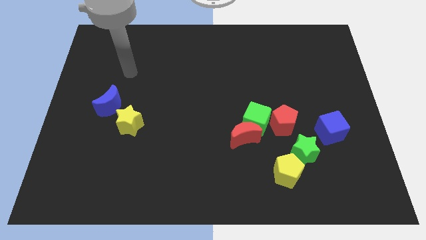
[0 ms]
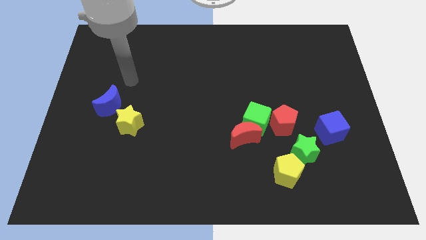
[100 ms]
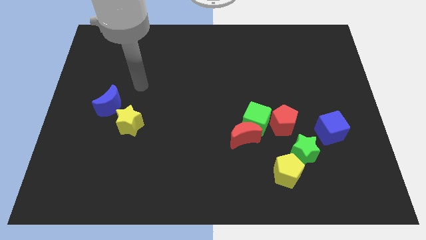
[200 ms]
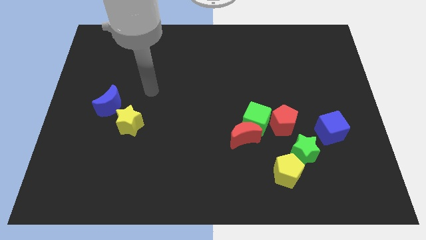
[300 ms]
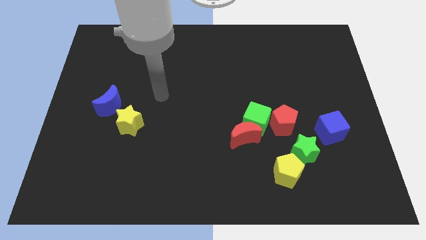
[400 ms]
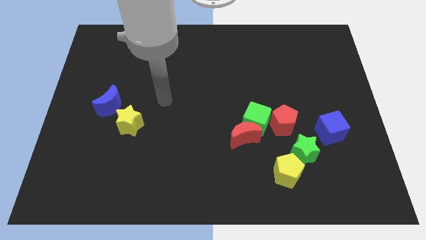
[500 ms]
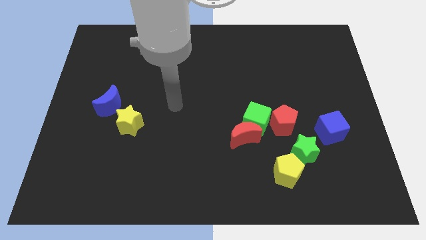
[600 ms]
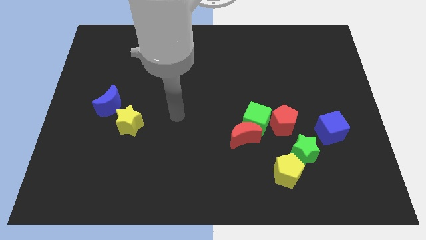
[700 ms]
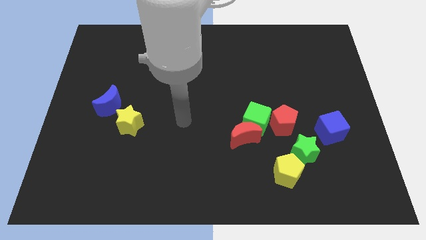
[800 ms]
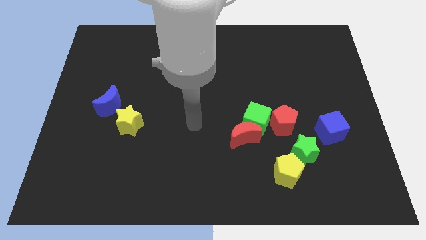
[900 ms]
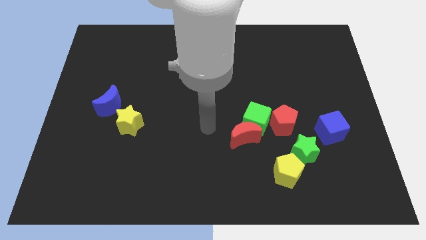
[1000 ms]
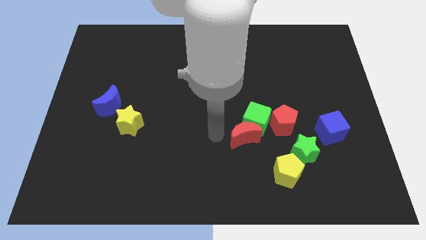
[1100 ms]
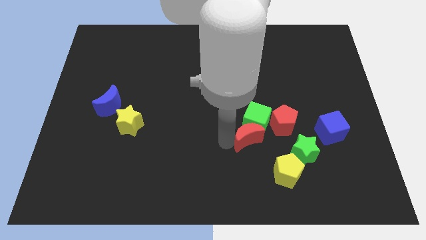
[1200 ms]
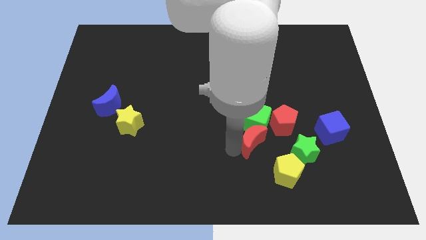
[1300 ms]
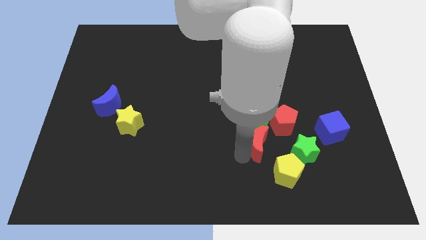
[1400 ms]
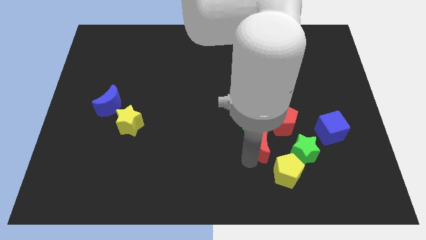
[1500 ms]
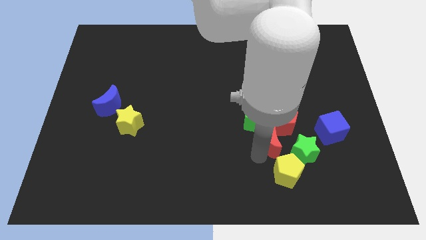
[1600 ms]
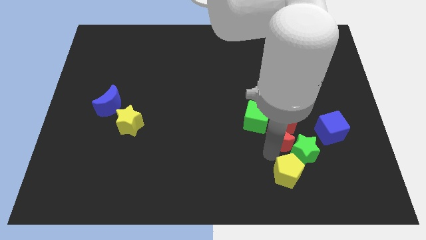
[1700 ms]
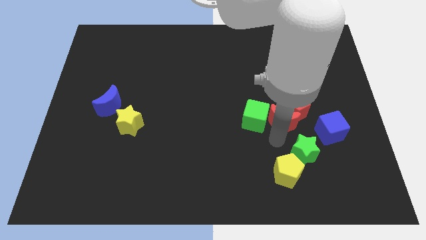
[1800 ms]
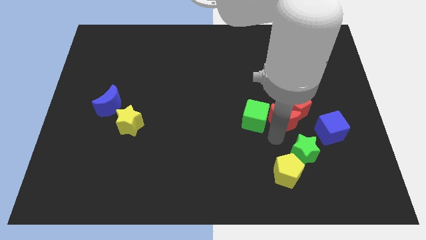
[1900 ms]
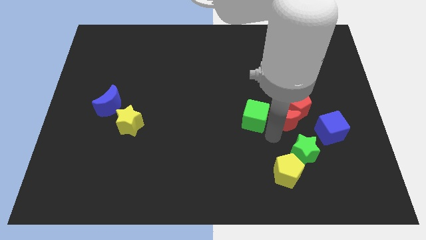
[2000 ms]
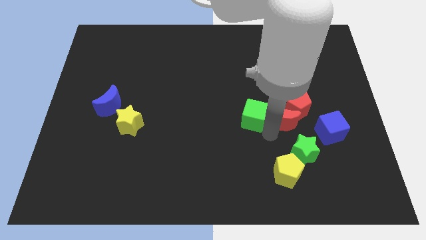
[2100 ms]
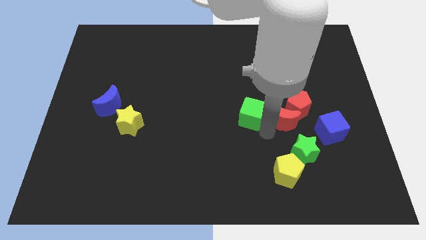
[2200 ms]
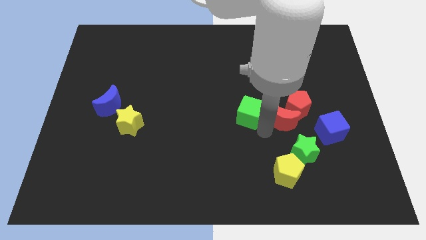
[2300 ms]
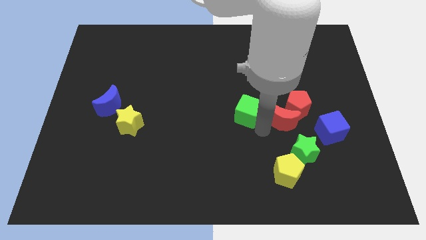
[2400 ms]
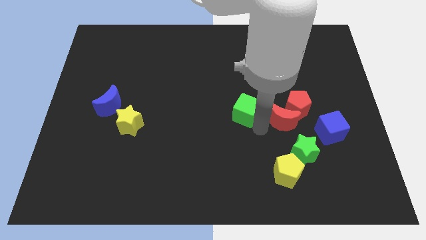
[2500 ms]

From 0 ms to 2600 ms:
pull the green cube apart from the red moon and red pentagon

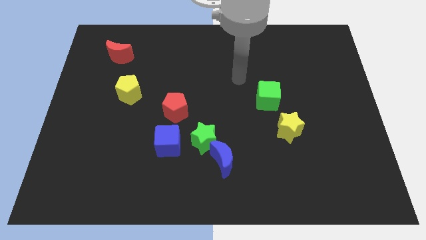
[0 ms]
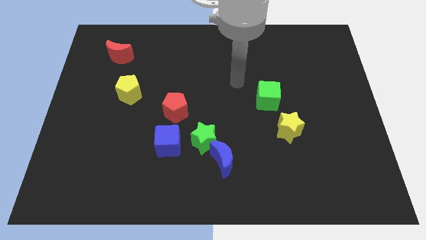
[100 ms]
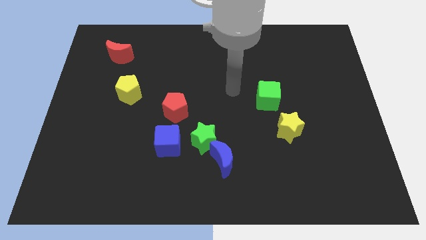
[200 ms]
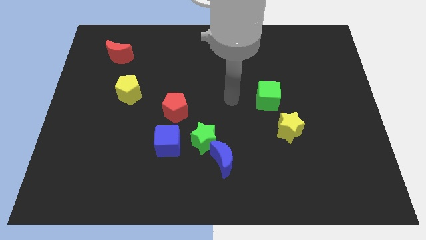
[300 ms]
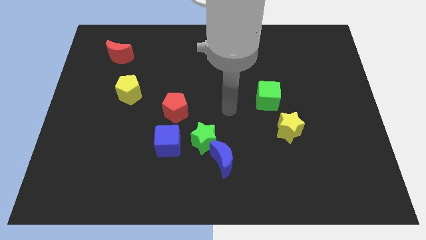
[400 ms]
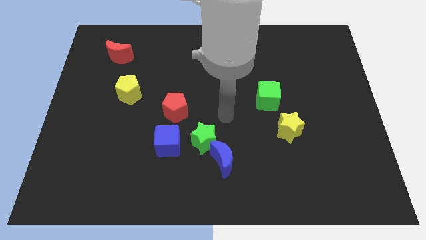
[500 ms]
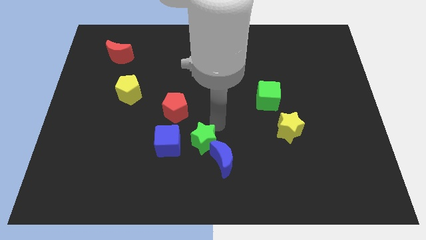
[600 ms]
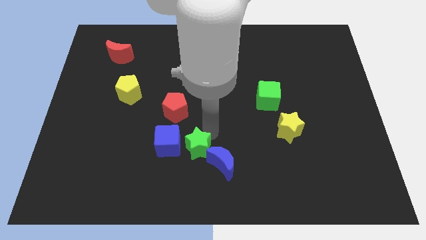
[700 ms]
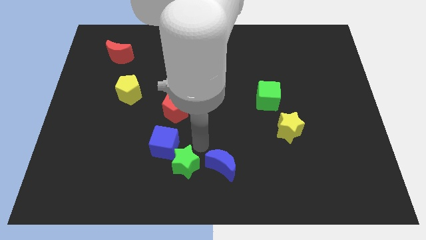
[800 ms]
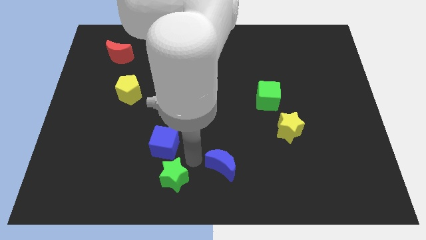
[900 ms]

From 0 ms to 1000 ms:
move the blue moon away from the green star

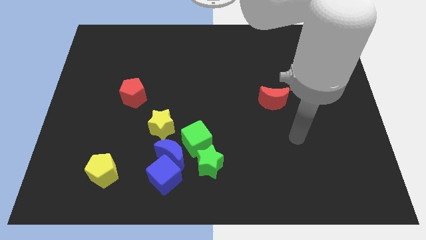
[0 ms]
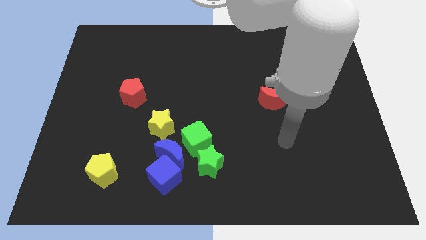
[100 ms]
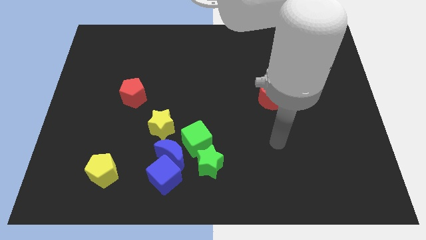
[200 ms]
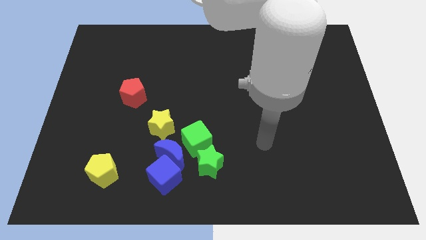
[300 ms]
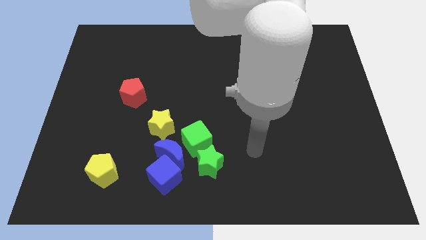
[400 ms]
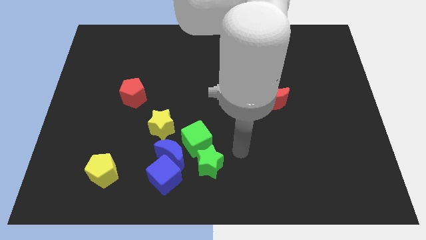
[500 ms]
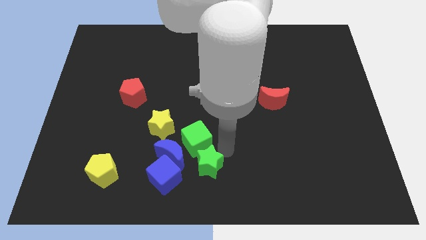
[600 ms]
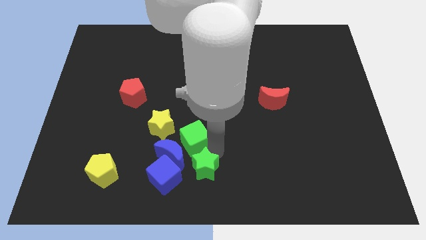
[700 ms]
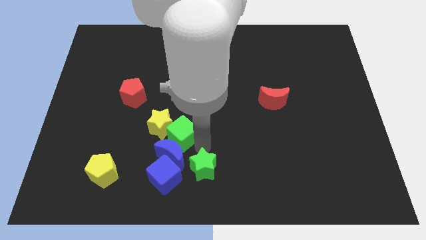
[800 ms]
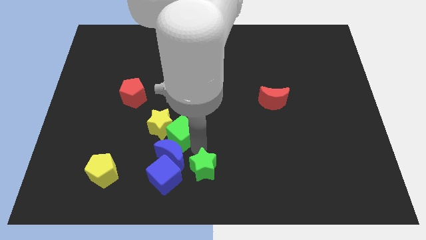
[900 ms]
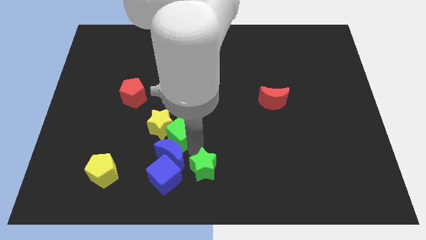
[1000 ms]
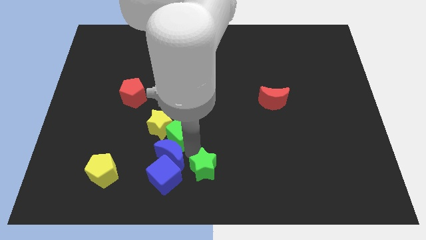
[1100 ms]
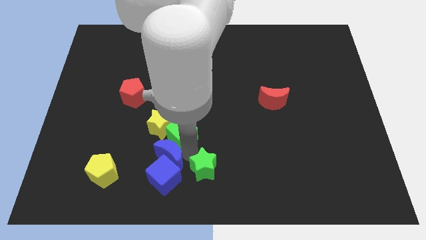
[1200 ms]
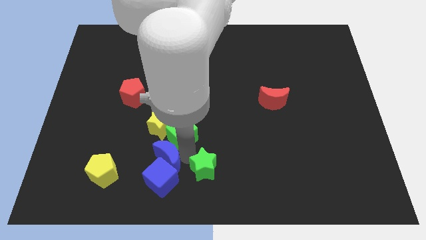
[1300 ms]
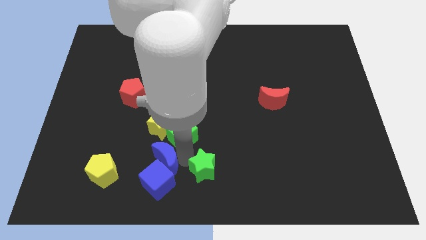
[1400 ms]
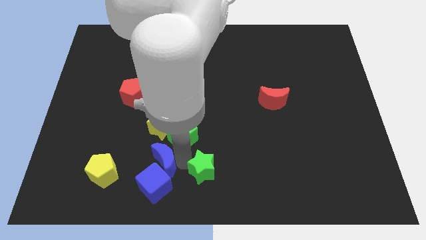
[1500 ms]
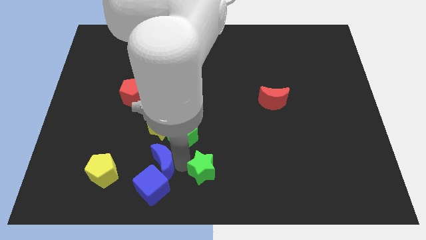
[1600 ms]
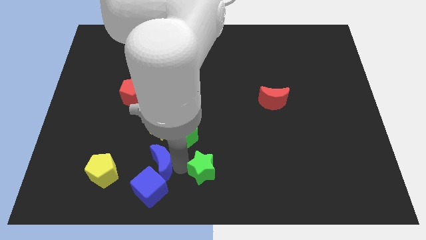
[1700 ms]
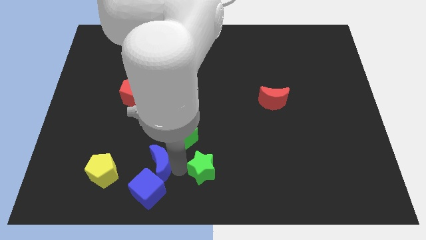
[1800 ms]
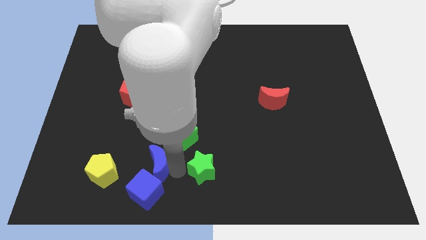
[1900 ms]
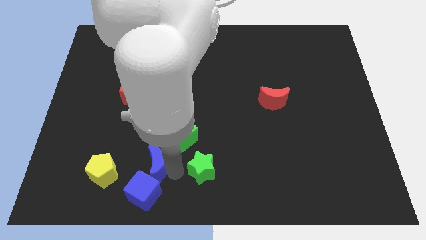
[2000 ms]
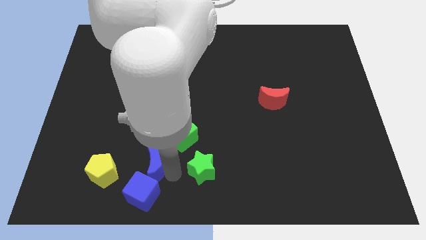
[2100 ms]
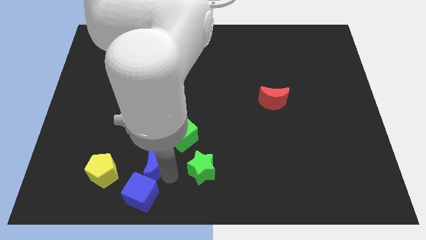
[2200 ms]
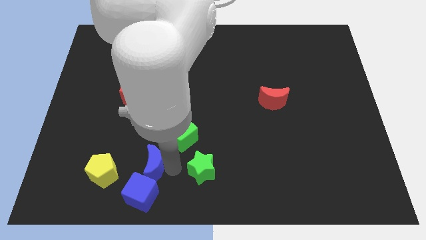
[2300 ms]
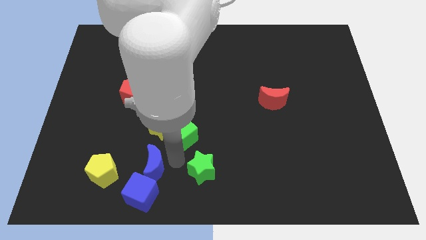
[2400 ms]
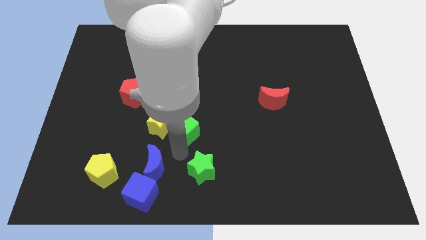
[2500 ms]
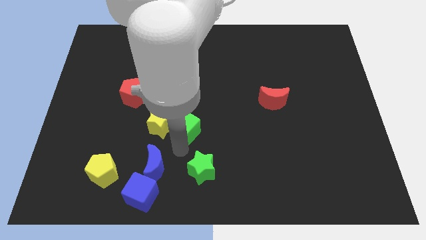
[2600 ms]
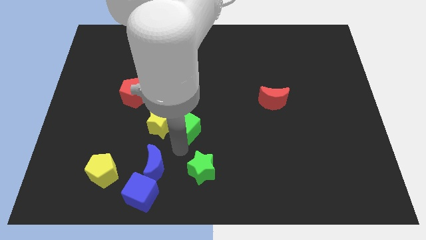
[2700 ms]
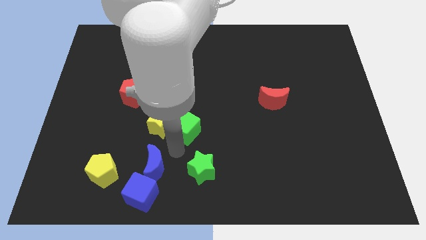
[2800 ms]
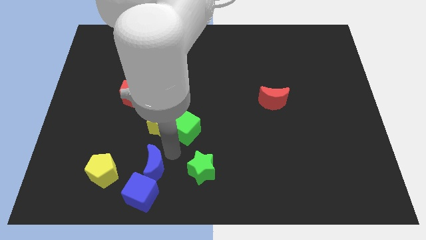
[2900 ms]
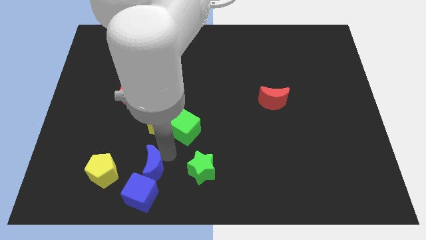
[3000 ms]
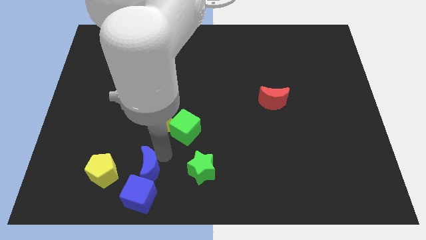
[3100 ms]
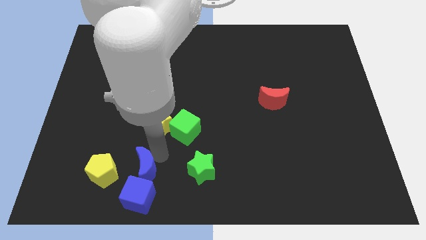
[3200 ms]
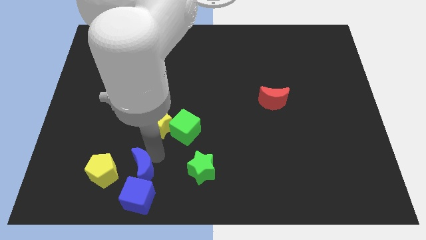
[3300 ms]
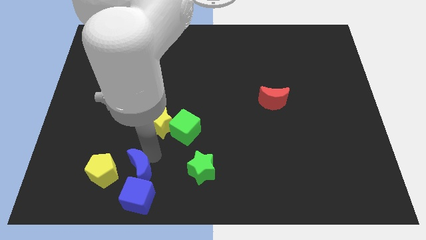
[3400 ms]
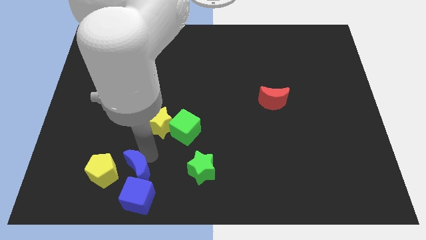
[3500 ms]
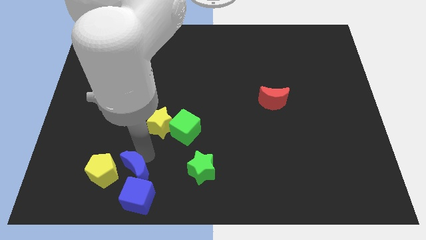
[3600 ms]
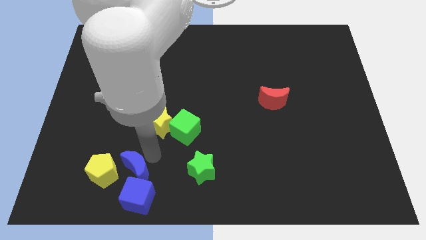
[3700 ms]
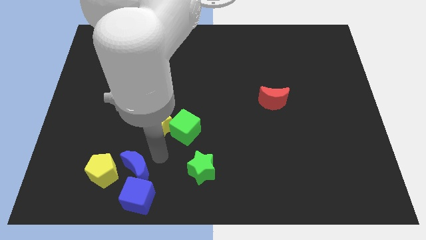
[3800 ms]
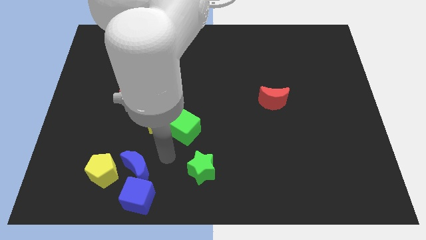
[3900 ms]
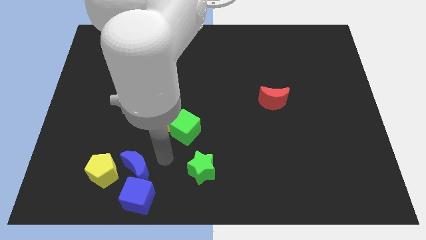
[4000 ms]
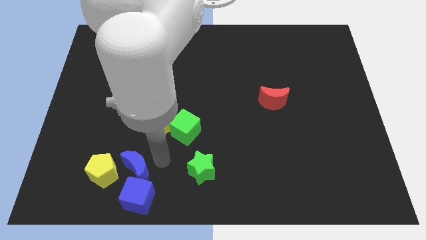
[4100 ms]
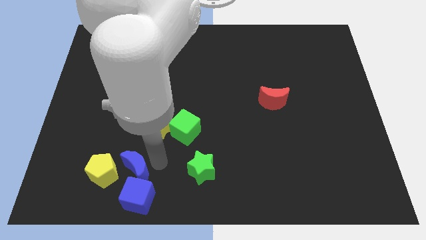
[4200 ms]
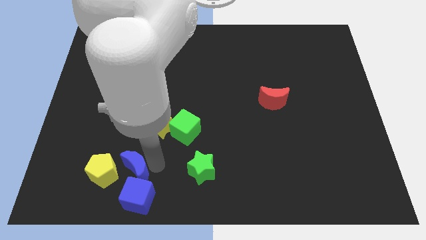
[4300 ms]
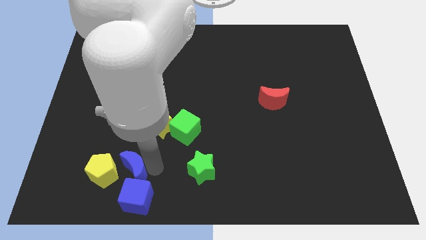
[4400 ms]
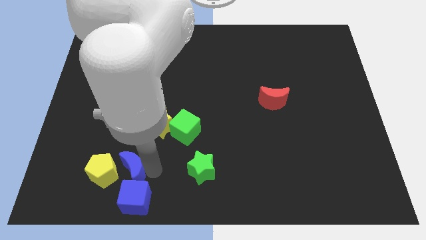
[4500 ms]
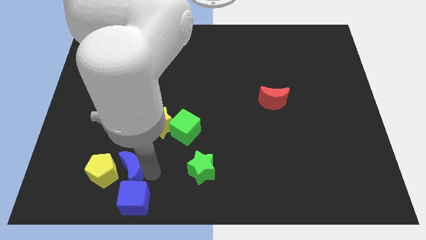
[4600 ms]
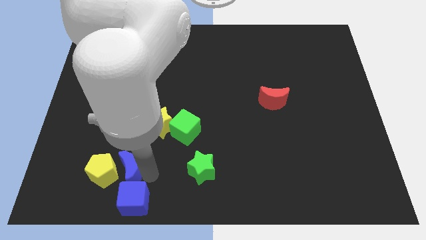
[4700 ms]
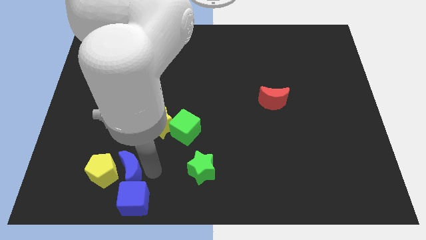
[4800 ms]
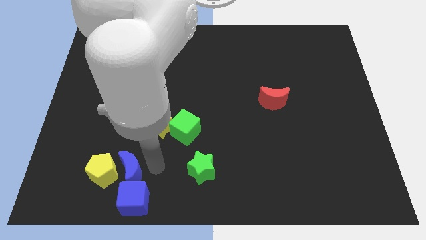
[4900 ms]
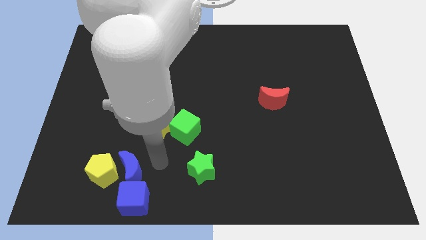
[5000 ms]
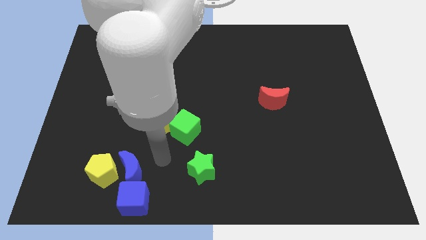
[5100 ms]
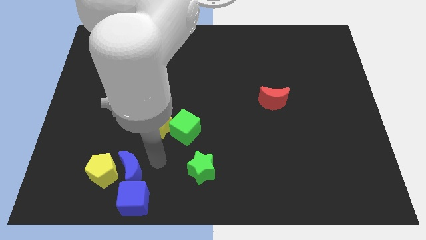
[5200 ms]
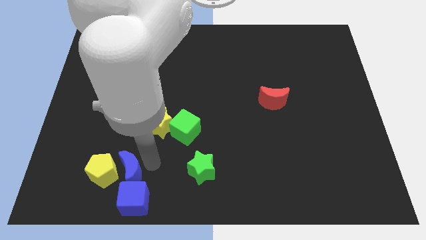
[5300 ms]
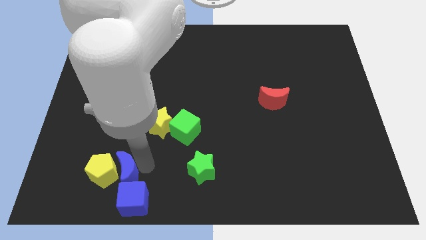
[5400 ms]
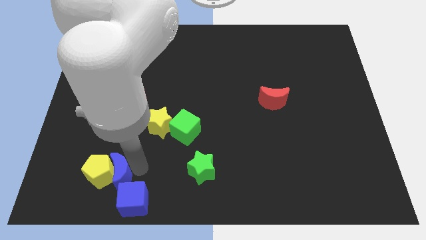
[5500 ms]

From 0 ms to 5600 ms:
separate the blue moon from the clump

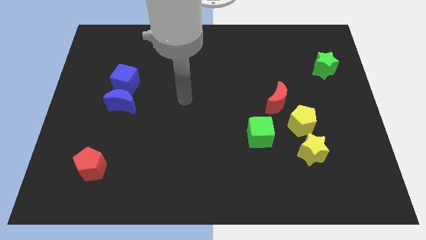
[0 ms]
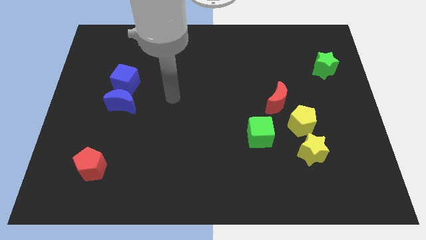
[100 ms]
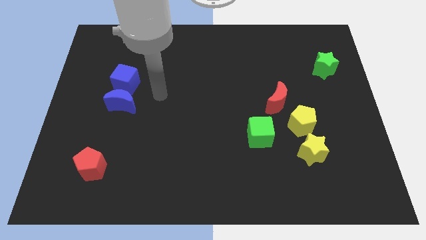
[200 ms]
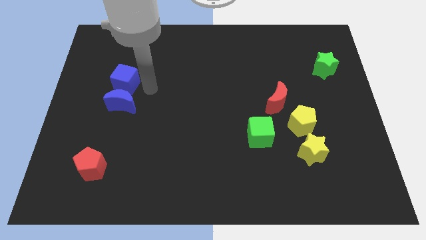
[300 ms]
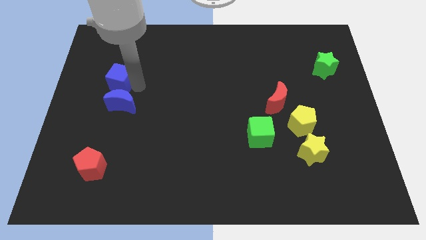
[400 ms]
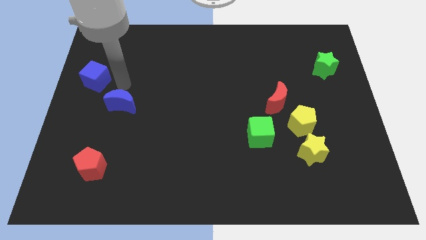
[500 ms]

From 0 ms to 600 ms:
move the blue moon away from the blue cube
